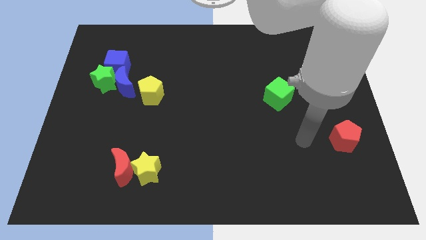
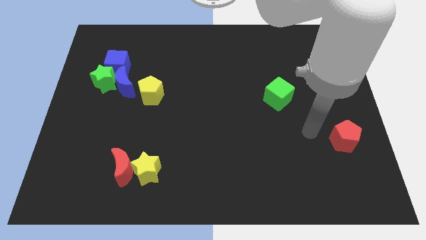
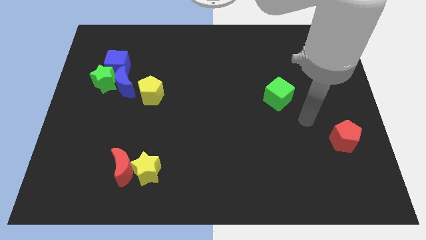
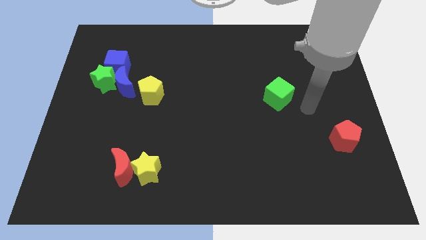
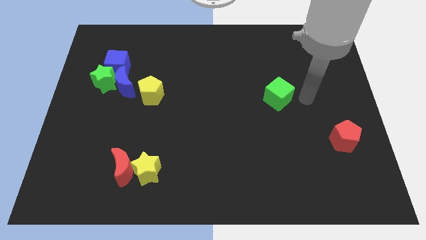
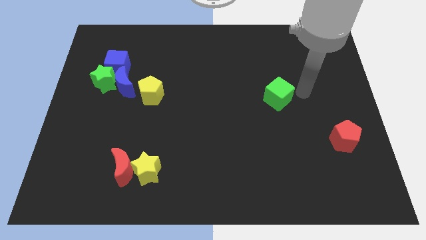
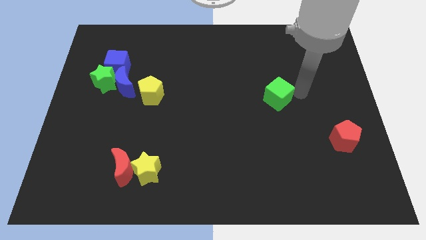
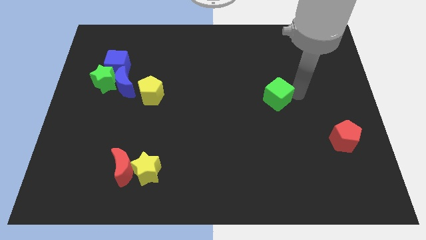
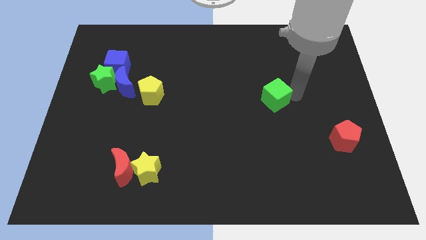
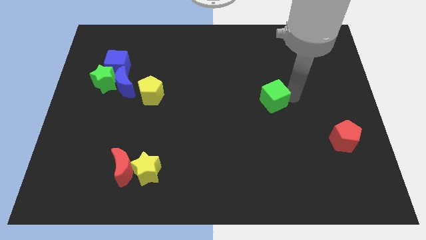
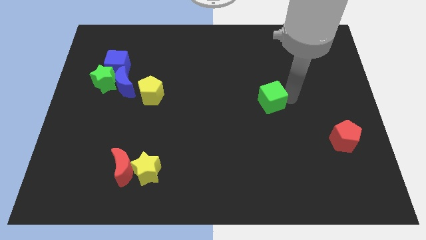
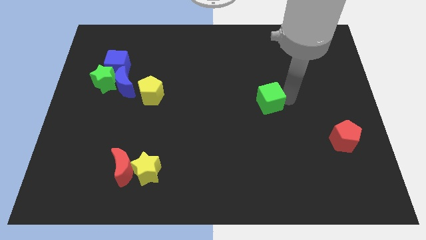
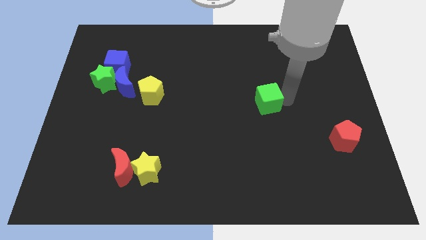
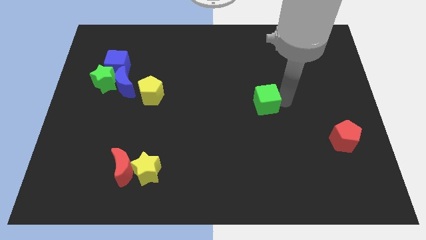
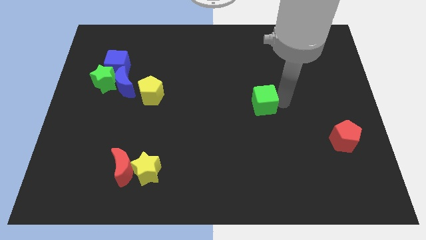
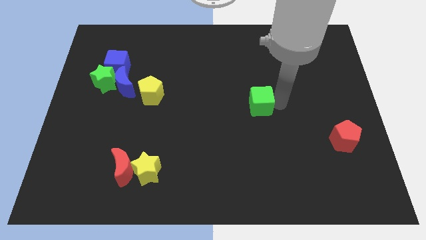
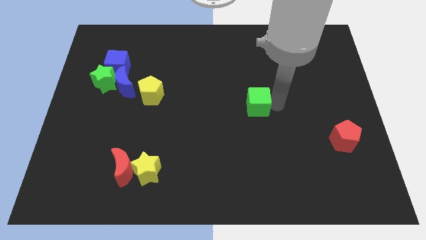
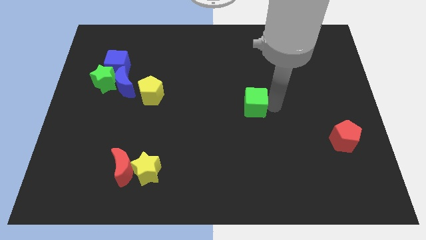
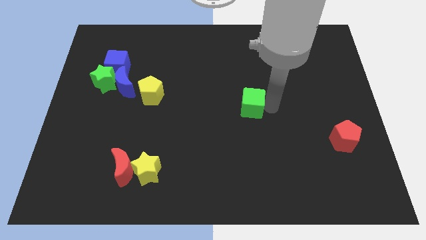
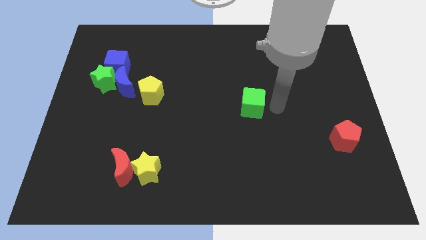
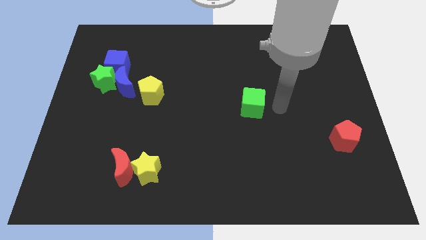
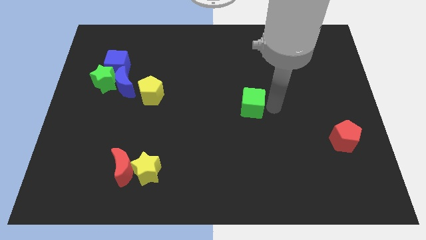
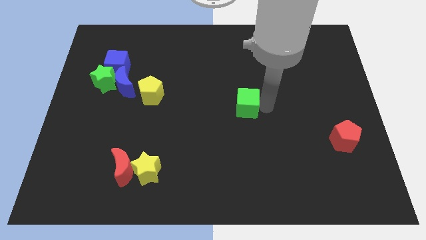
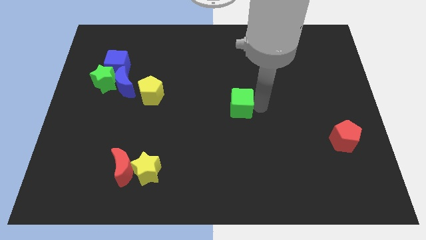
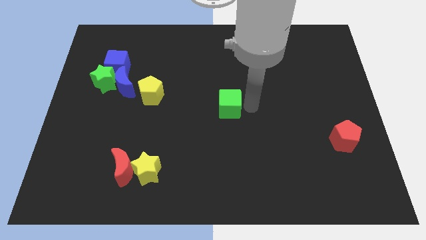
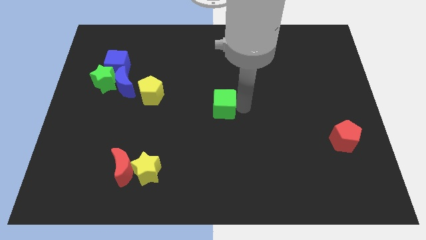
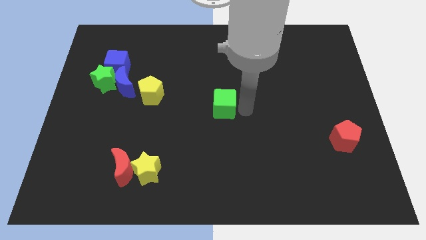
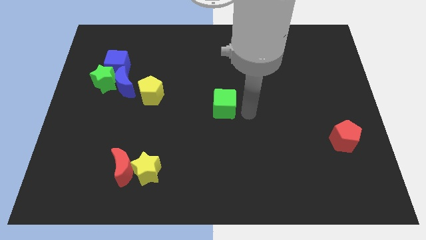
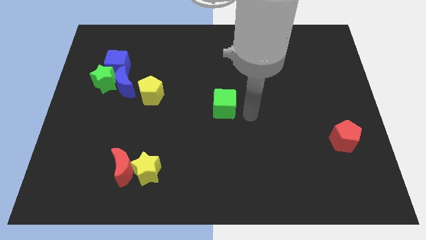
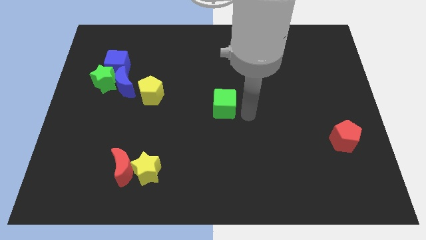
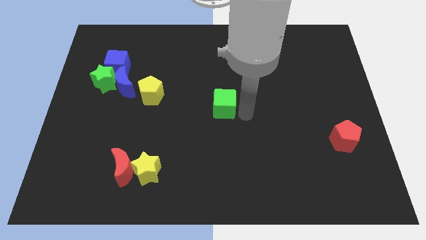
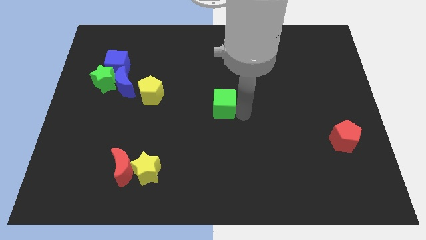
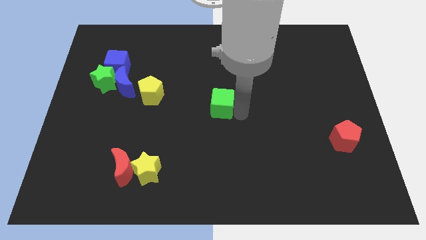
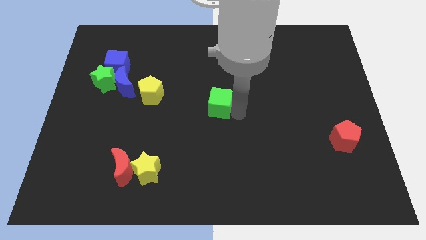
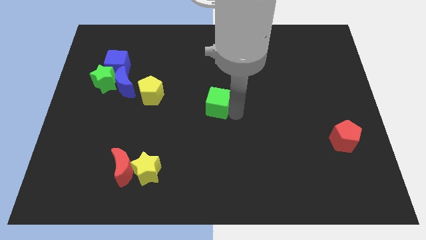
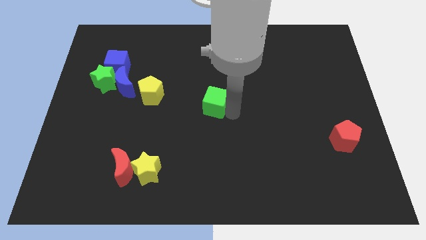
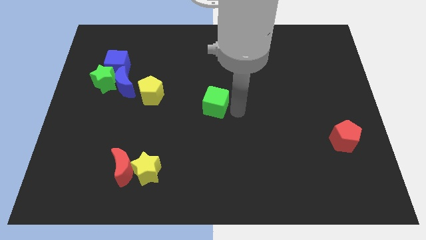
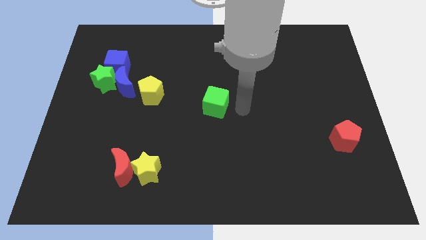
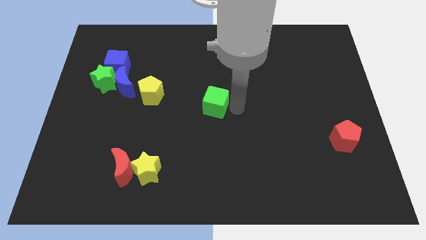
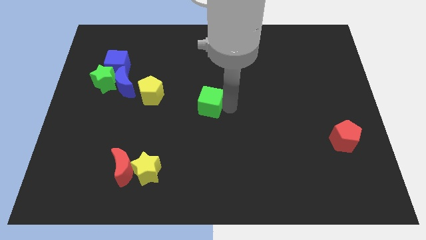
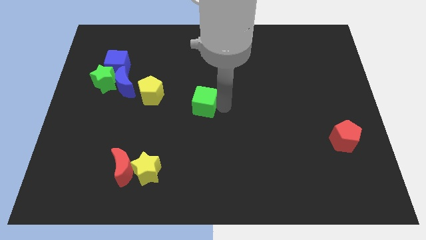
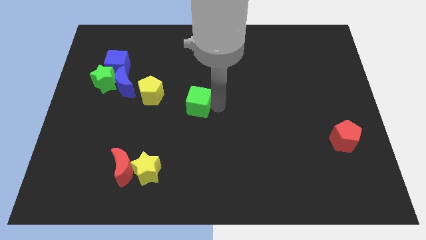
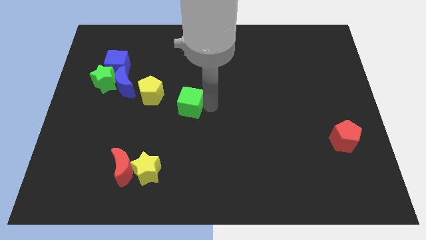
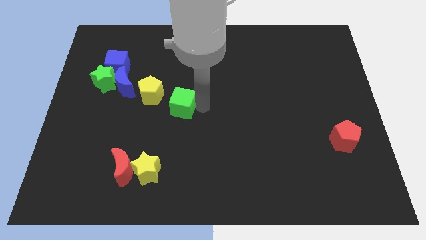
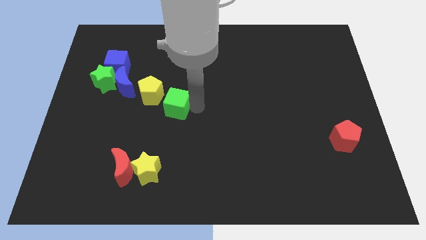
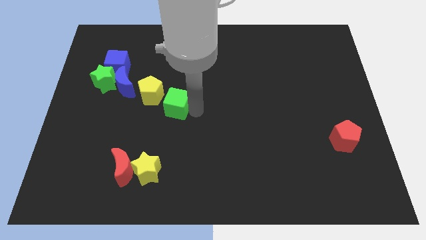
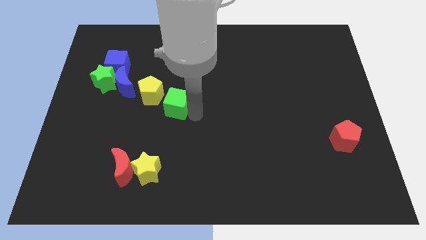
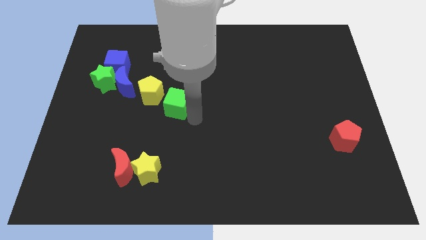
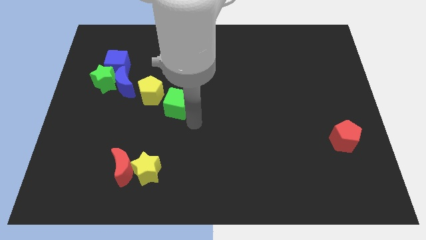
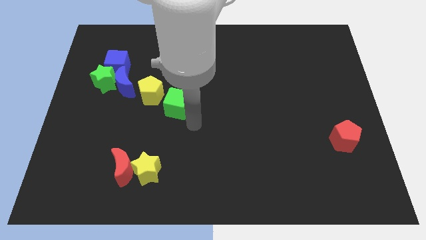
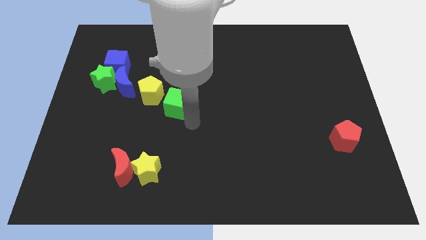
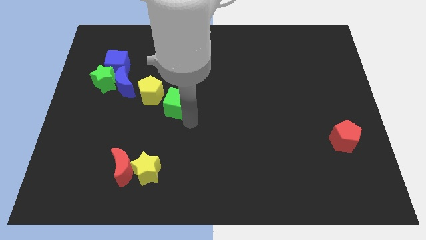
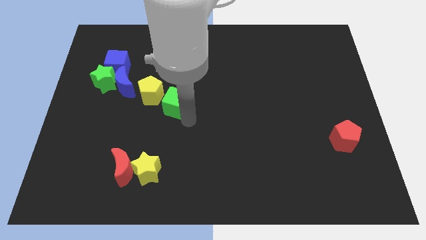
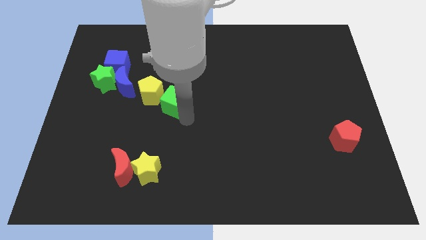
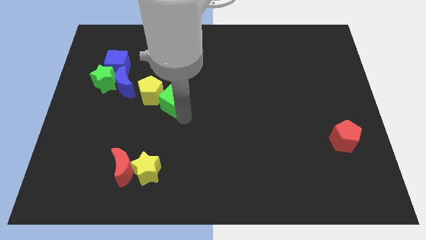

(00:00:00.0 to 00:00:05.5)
move the green cube to the yellow pentagon

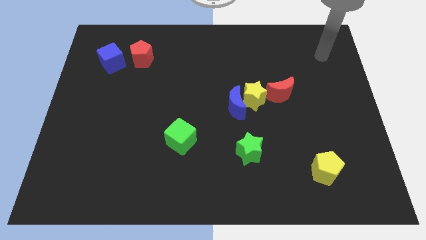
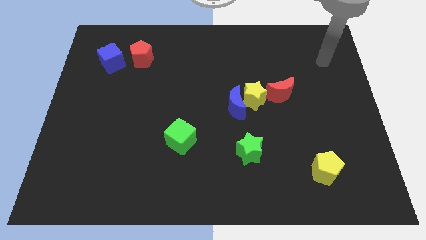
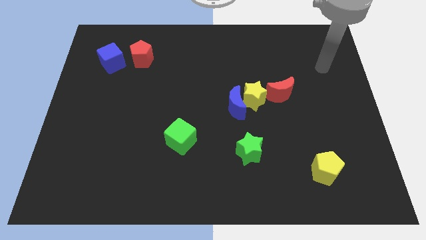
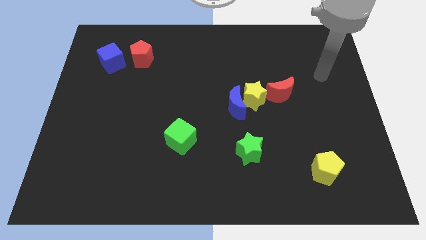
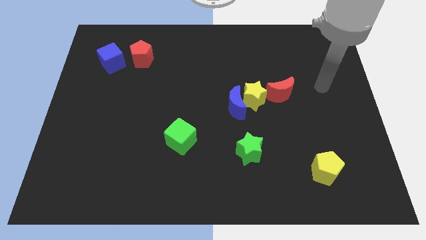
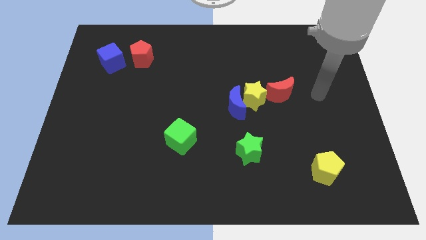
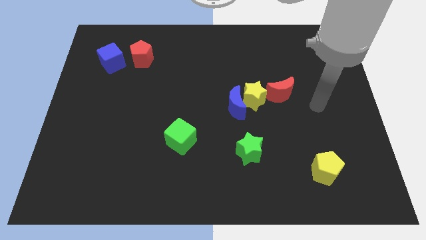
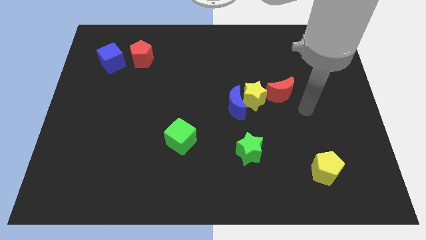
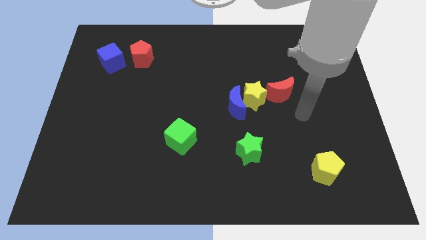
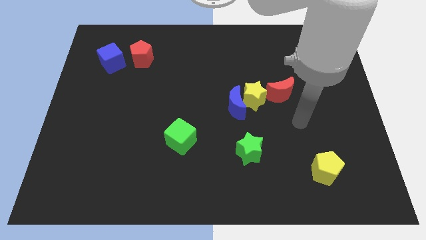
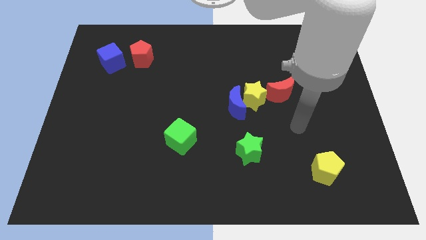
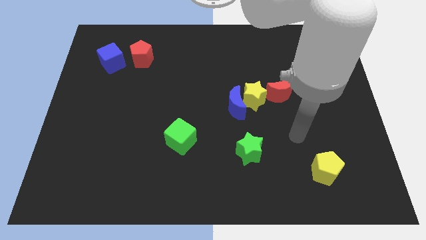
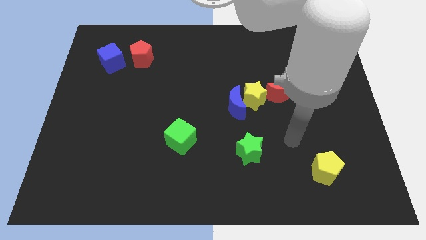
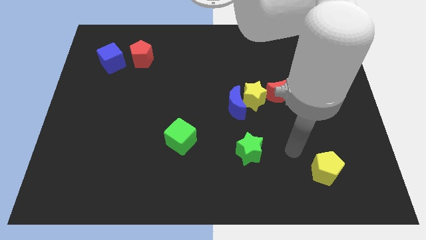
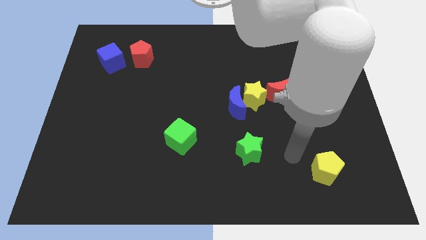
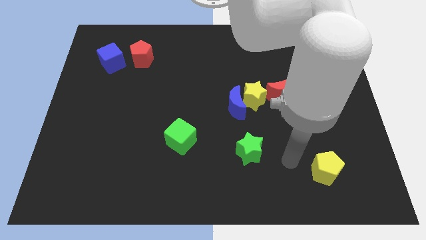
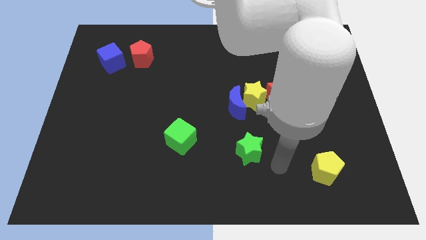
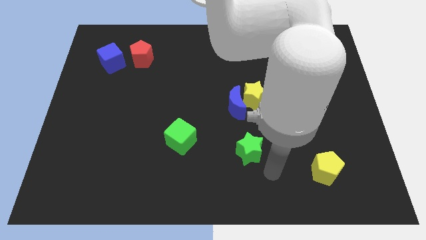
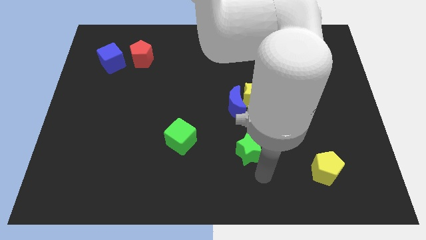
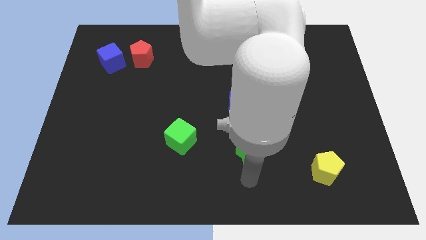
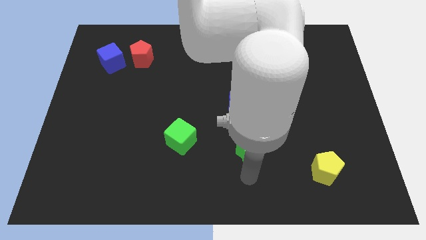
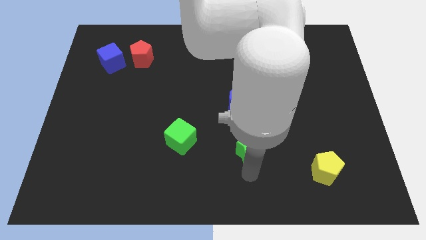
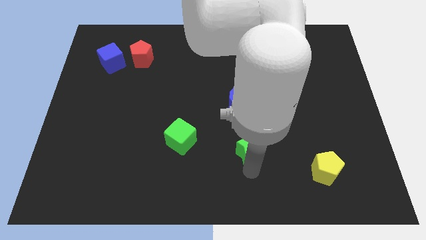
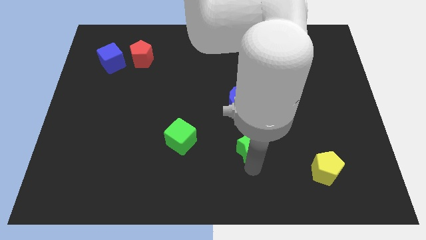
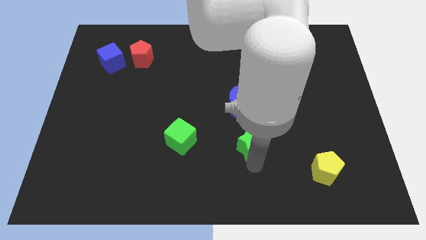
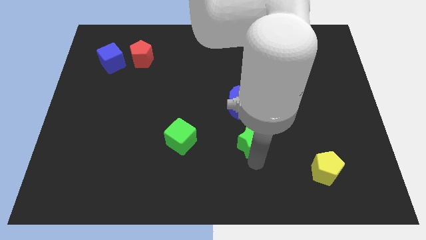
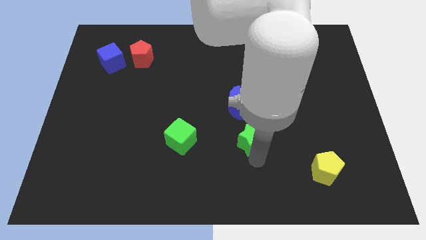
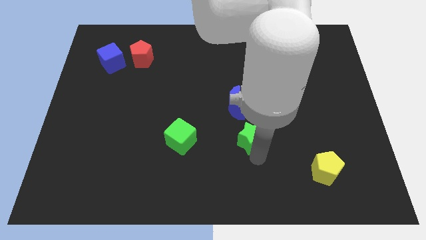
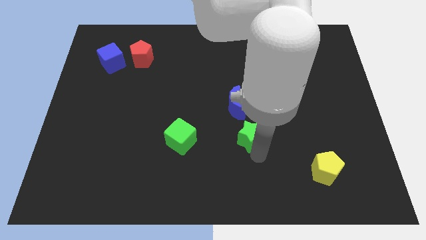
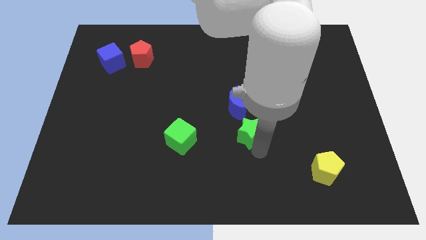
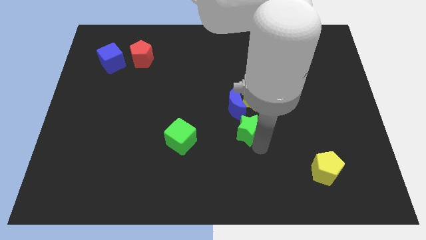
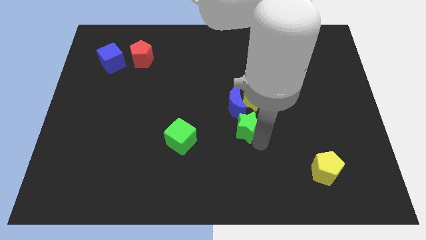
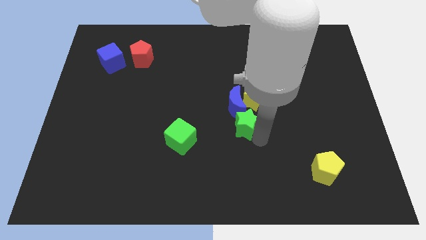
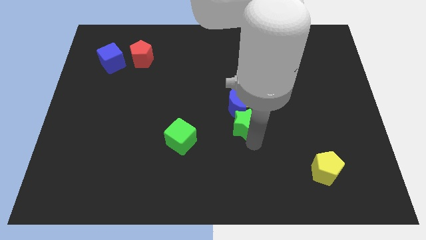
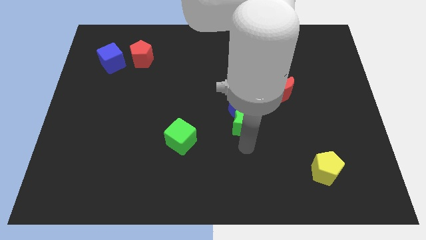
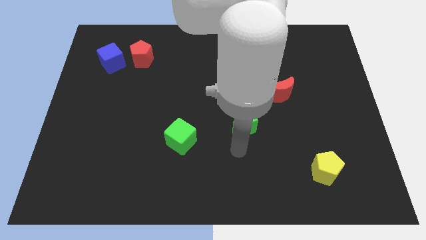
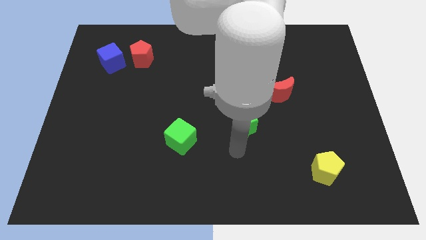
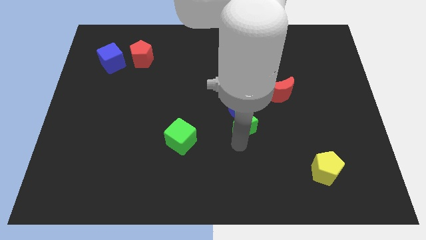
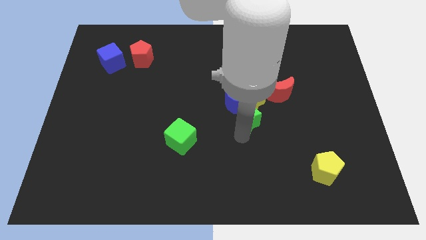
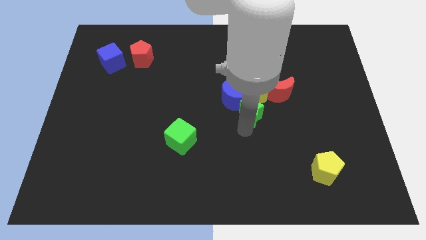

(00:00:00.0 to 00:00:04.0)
slide the green star to the yellow star
